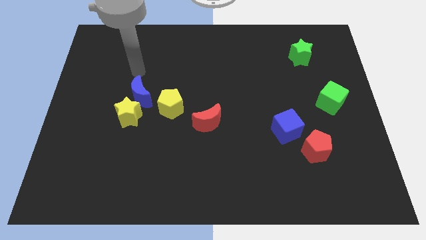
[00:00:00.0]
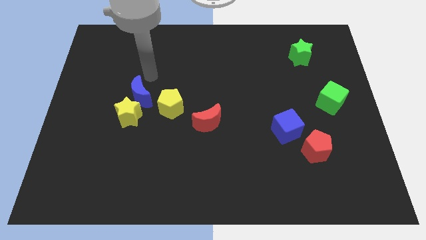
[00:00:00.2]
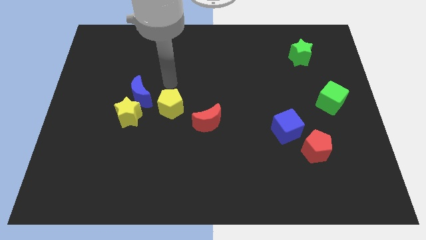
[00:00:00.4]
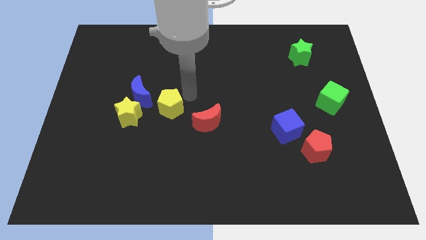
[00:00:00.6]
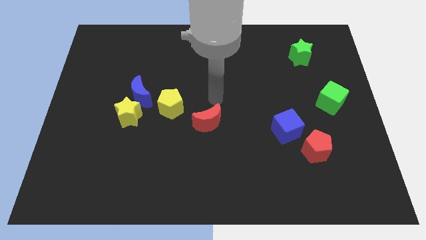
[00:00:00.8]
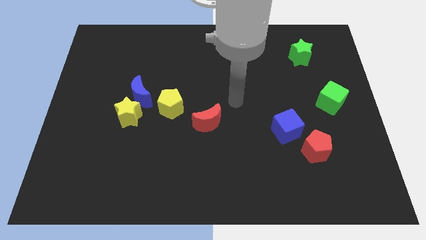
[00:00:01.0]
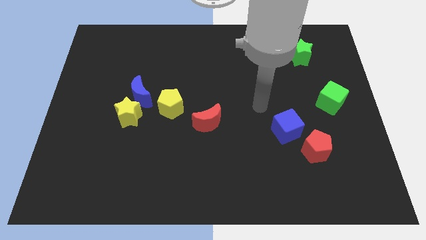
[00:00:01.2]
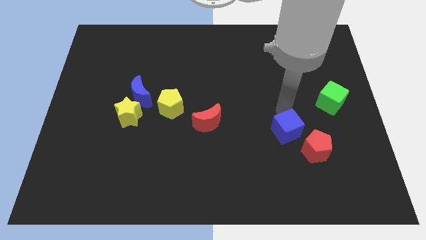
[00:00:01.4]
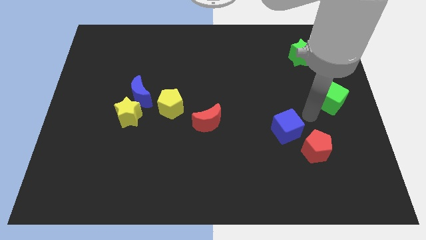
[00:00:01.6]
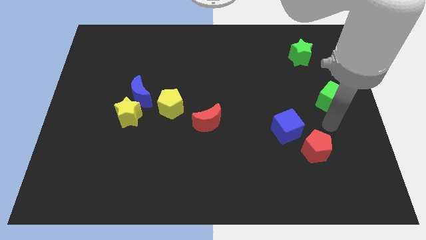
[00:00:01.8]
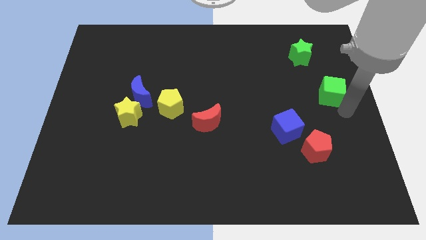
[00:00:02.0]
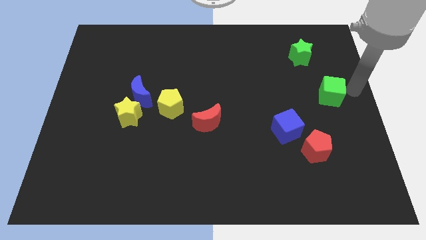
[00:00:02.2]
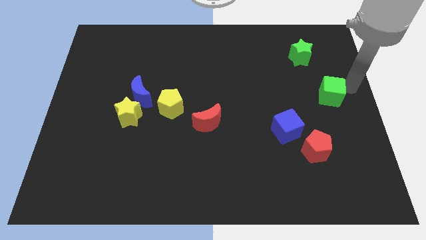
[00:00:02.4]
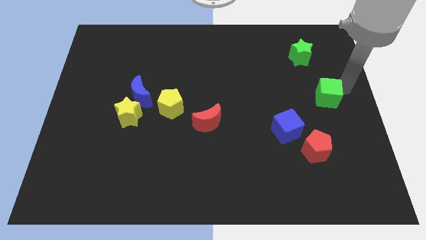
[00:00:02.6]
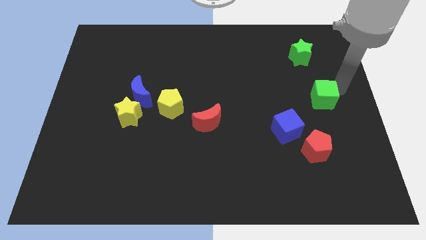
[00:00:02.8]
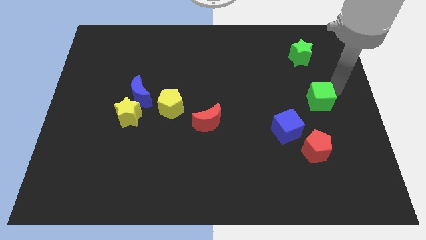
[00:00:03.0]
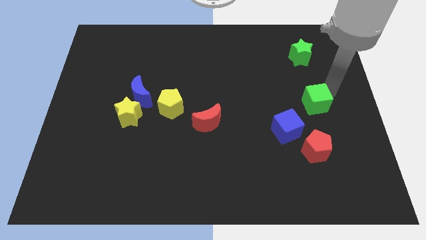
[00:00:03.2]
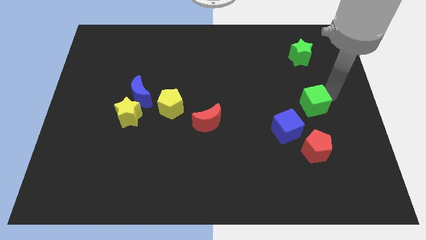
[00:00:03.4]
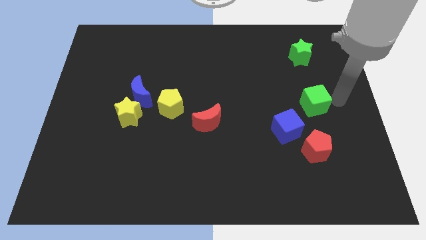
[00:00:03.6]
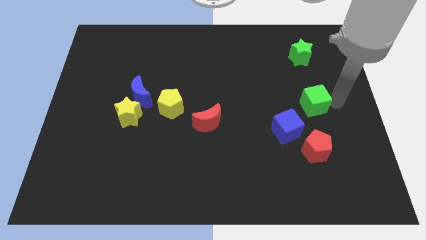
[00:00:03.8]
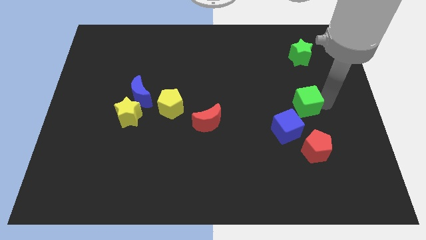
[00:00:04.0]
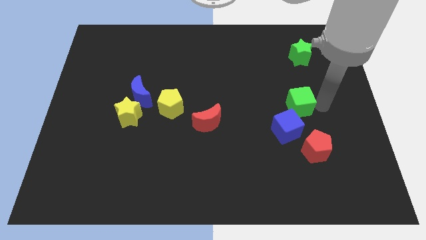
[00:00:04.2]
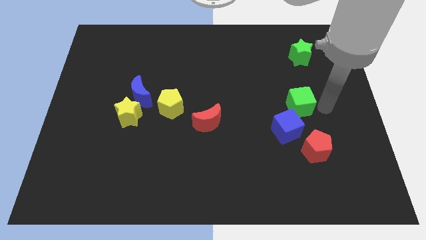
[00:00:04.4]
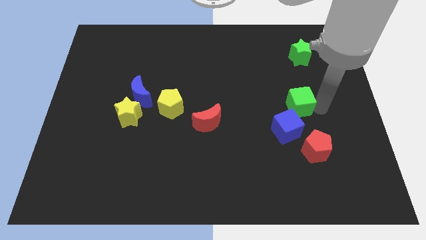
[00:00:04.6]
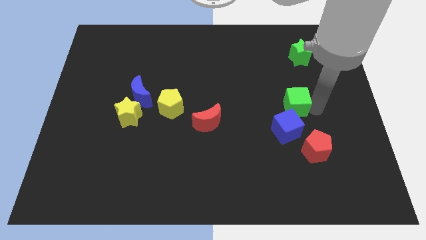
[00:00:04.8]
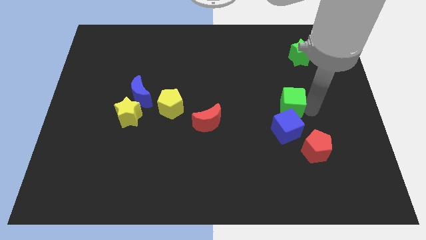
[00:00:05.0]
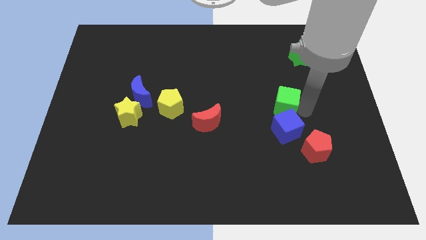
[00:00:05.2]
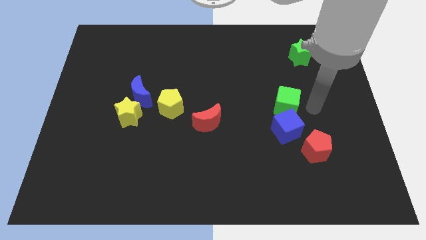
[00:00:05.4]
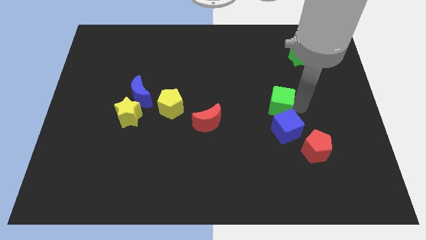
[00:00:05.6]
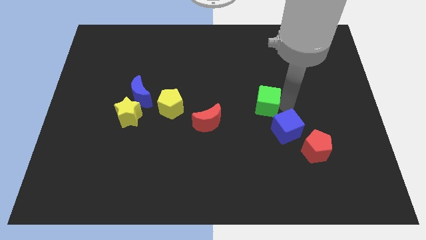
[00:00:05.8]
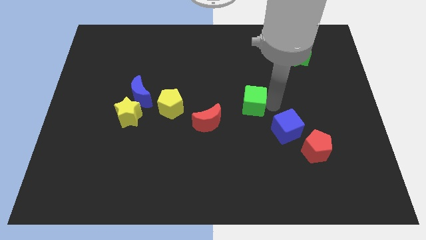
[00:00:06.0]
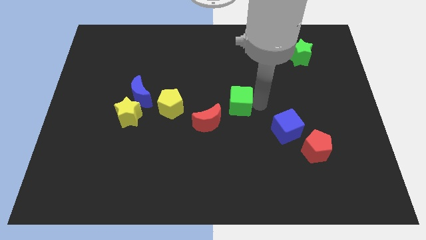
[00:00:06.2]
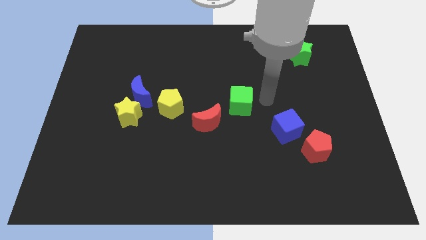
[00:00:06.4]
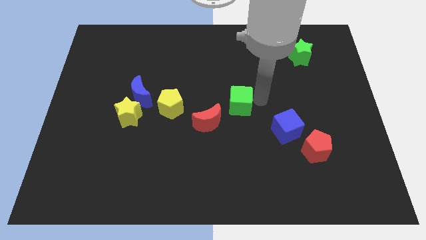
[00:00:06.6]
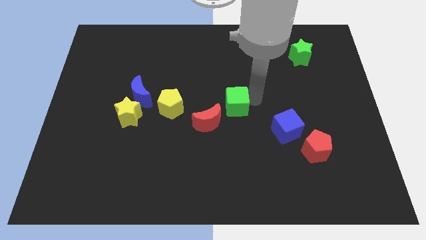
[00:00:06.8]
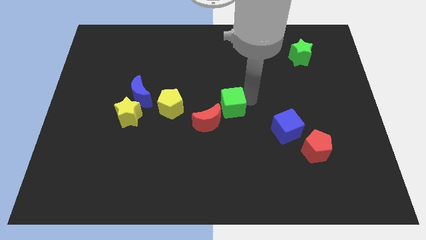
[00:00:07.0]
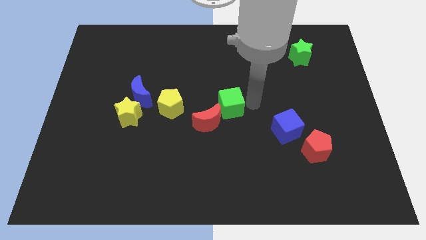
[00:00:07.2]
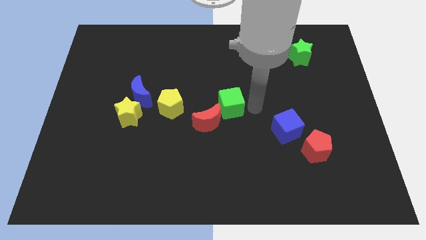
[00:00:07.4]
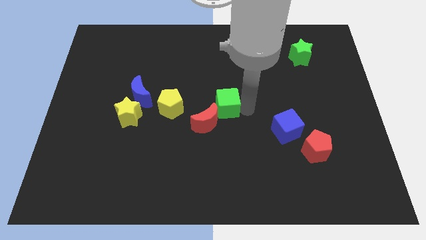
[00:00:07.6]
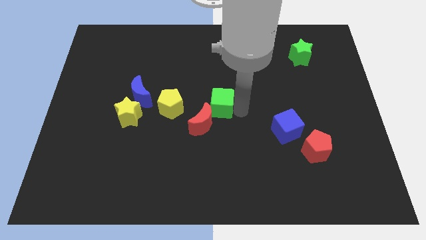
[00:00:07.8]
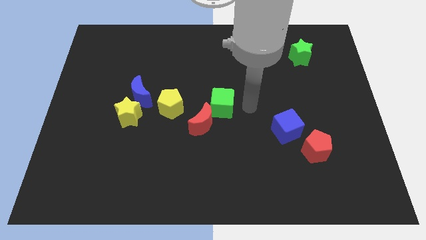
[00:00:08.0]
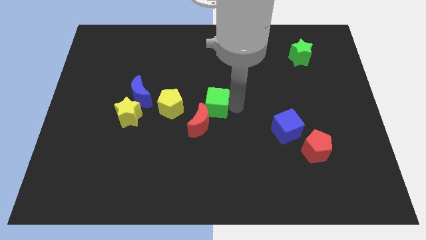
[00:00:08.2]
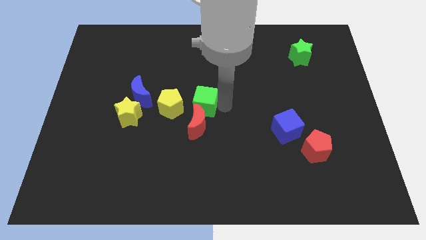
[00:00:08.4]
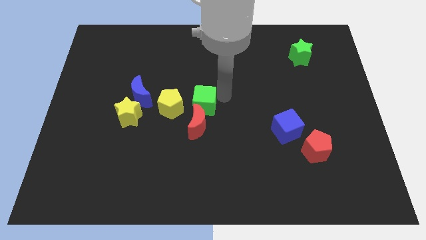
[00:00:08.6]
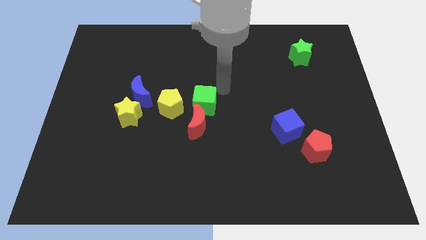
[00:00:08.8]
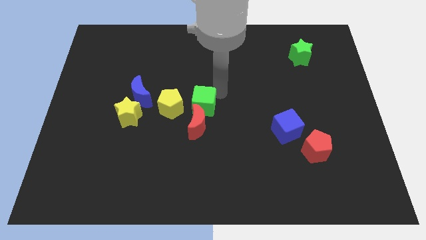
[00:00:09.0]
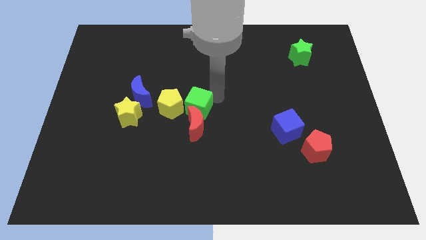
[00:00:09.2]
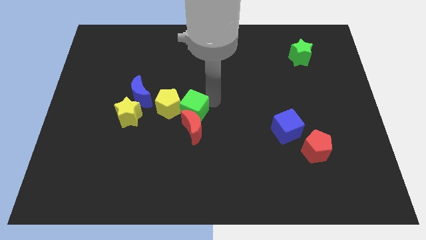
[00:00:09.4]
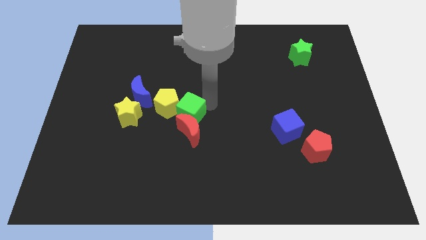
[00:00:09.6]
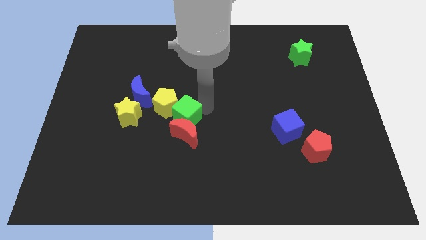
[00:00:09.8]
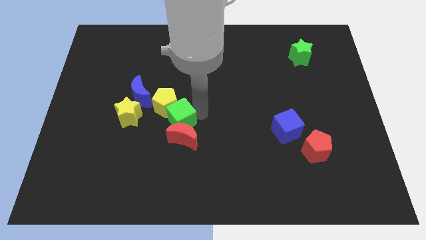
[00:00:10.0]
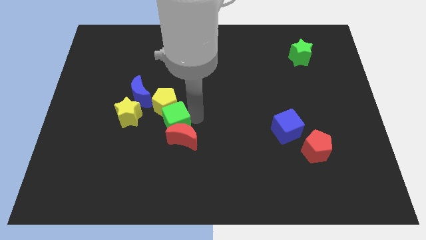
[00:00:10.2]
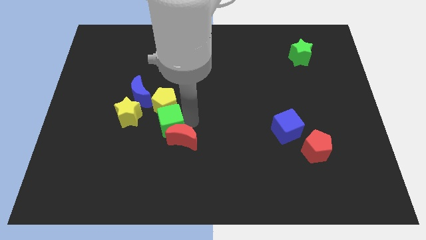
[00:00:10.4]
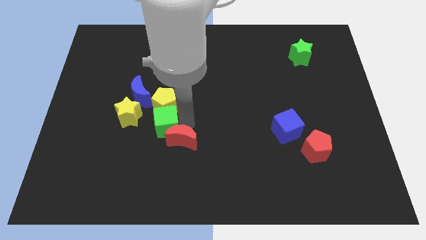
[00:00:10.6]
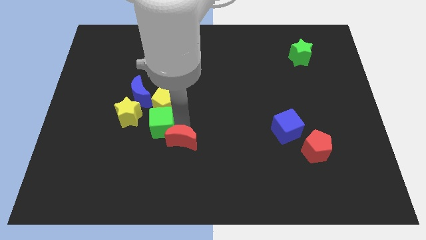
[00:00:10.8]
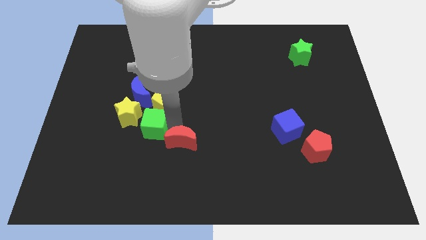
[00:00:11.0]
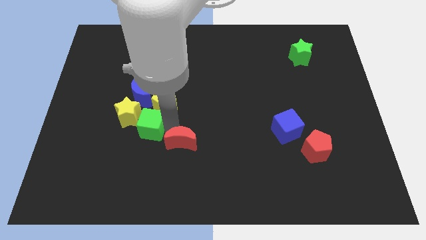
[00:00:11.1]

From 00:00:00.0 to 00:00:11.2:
slide the green cube close to the yellow star

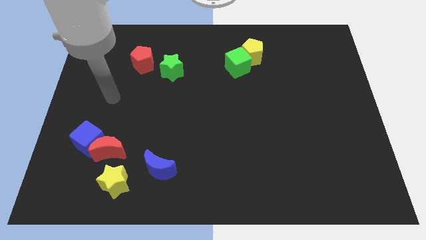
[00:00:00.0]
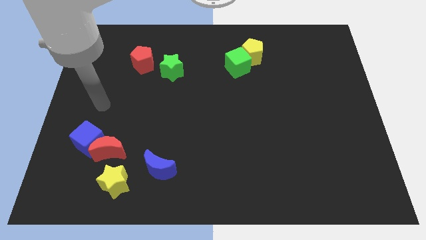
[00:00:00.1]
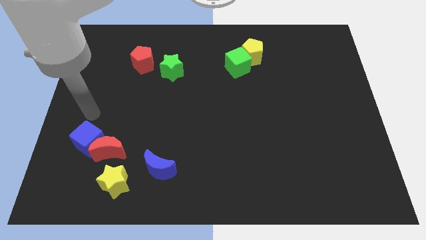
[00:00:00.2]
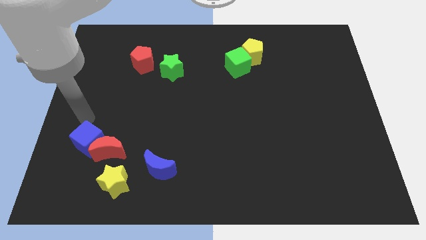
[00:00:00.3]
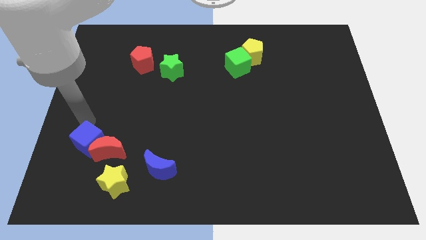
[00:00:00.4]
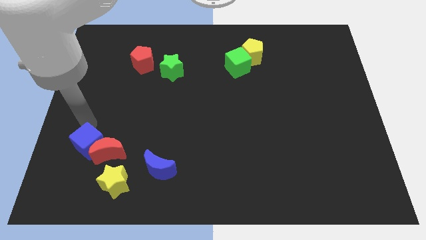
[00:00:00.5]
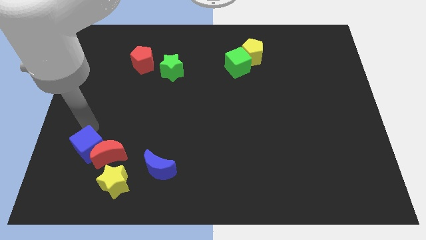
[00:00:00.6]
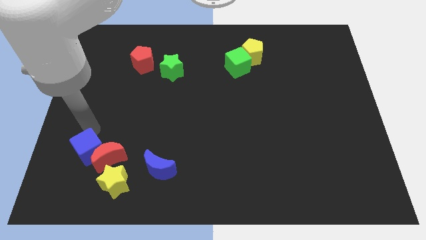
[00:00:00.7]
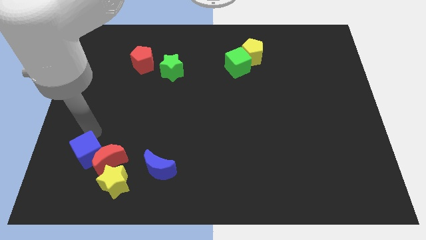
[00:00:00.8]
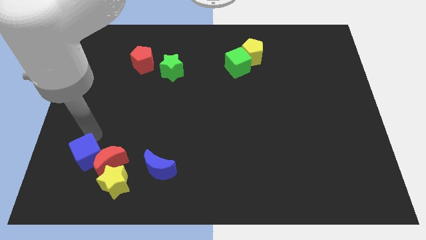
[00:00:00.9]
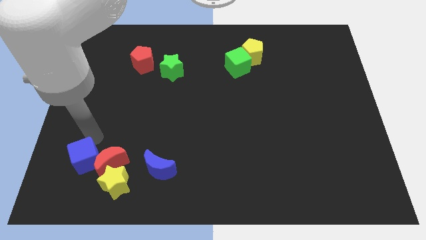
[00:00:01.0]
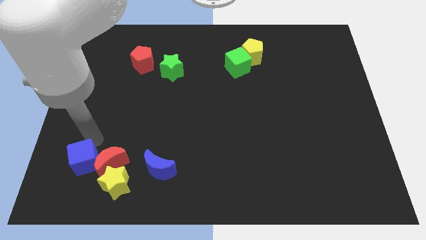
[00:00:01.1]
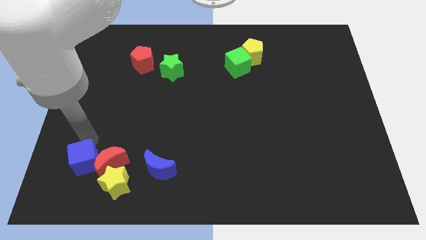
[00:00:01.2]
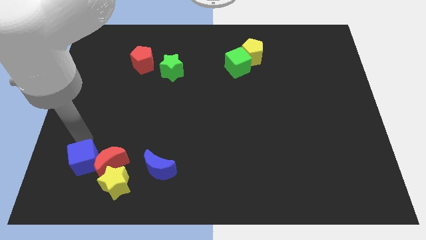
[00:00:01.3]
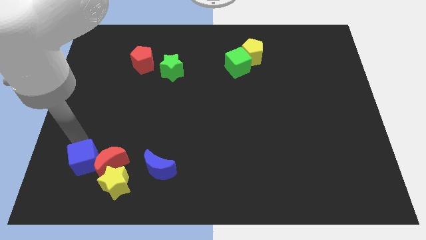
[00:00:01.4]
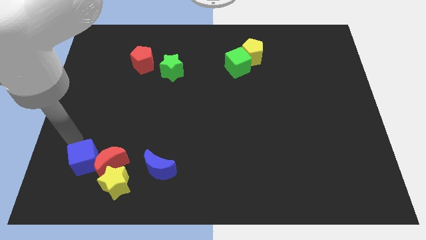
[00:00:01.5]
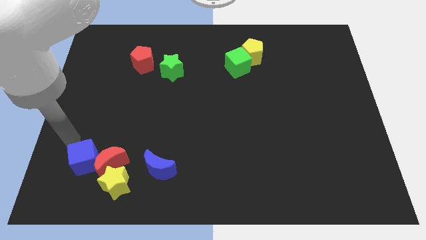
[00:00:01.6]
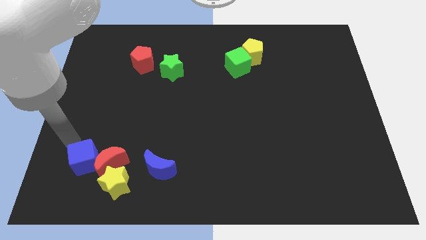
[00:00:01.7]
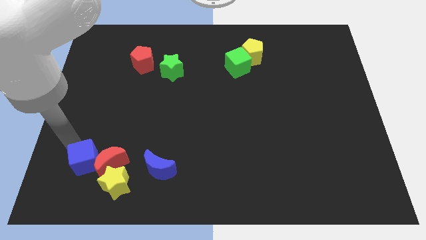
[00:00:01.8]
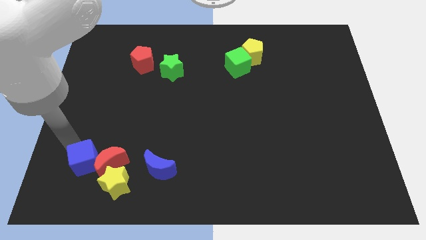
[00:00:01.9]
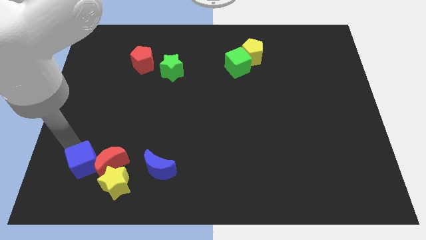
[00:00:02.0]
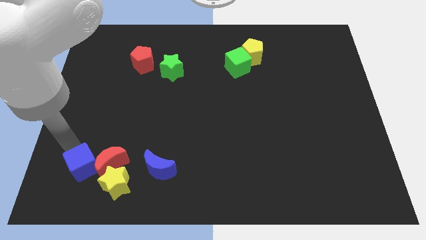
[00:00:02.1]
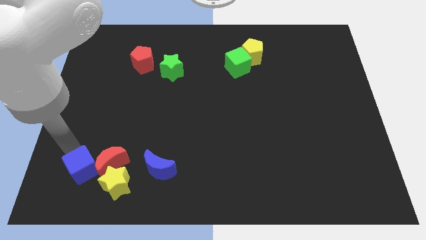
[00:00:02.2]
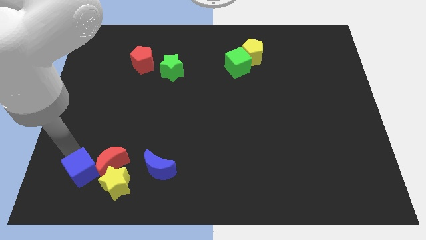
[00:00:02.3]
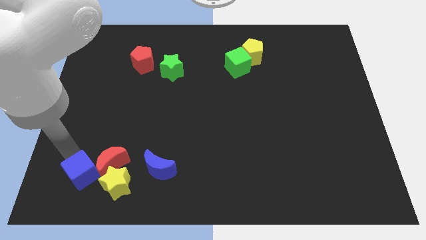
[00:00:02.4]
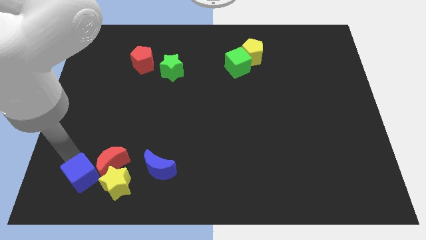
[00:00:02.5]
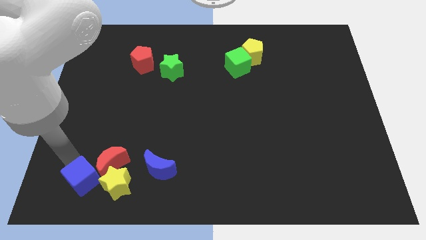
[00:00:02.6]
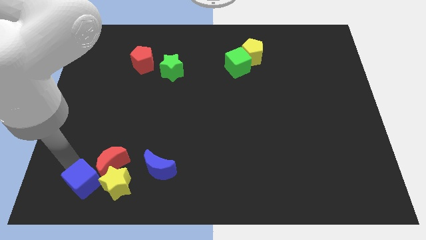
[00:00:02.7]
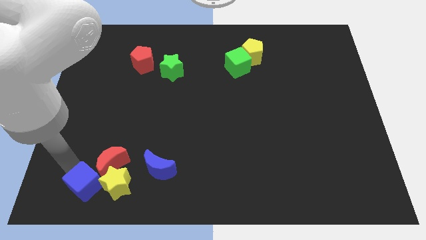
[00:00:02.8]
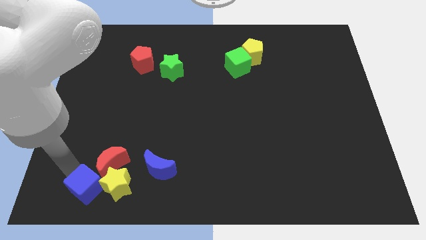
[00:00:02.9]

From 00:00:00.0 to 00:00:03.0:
push the blue cube towards the yellow star
